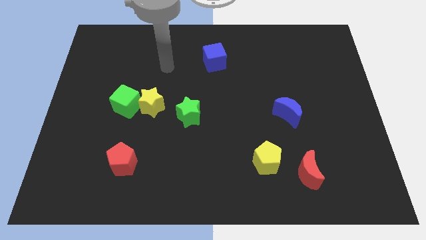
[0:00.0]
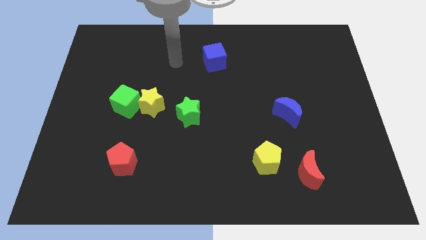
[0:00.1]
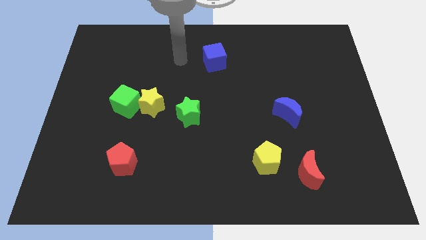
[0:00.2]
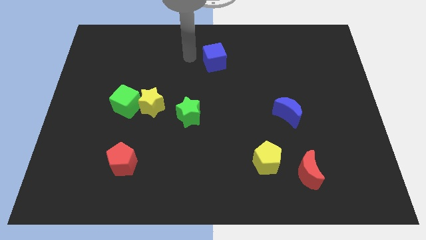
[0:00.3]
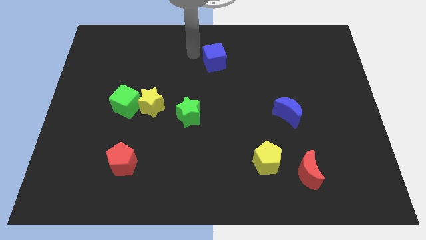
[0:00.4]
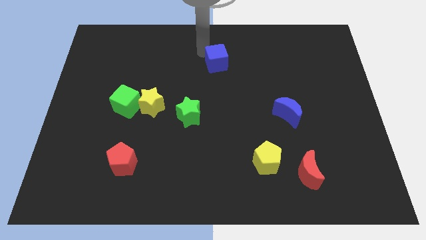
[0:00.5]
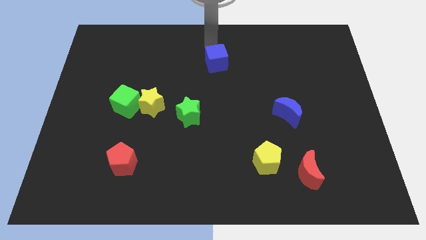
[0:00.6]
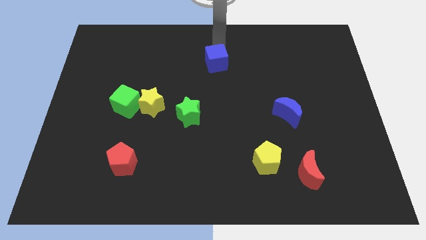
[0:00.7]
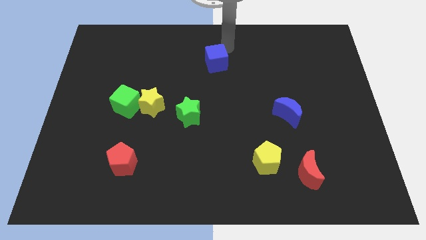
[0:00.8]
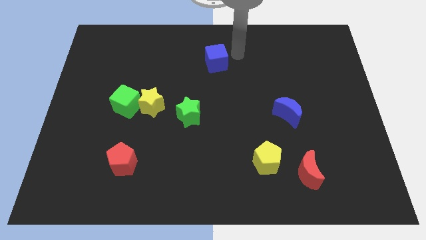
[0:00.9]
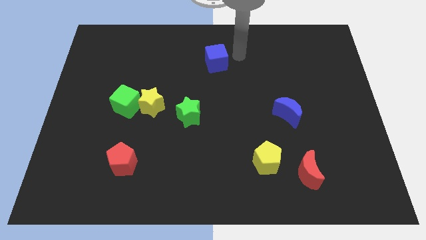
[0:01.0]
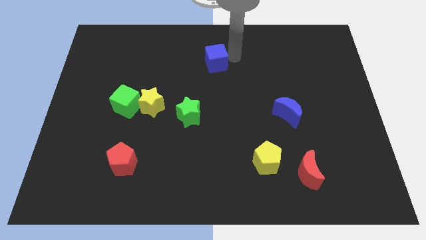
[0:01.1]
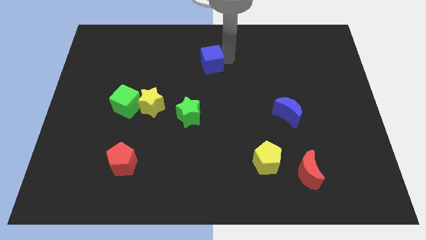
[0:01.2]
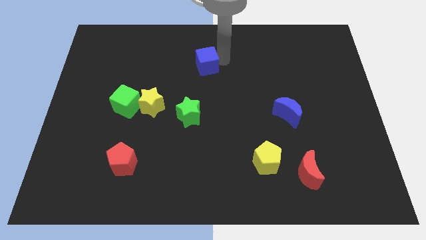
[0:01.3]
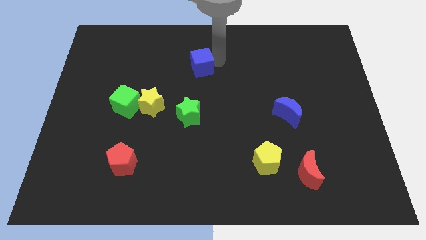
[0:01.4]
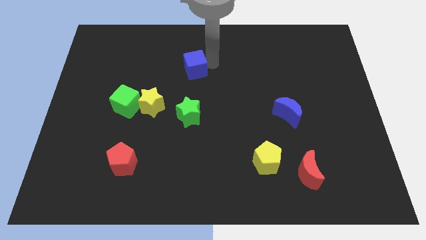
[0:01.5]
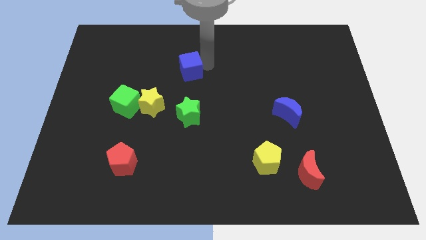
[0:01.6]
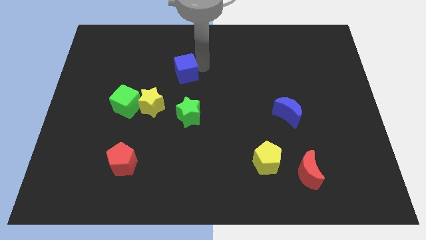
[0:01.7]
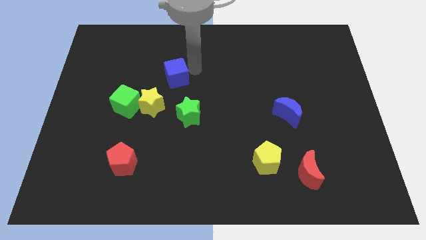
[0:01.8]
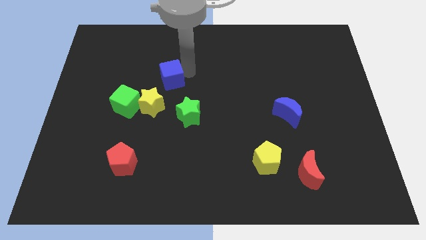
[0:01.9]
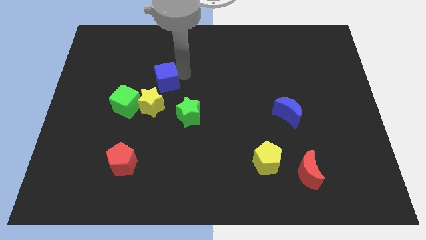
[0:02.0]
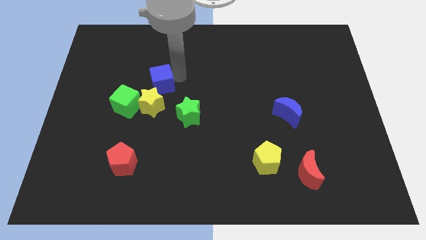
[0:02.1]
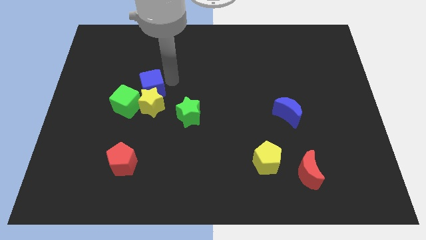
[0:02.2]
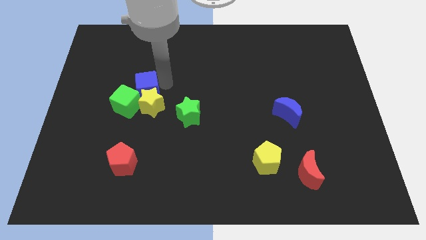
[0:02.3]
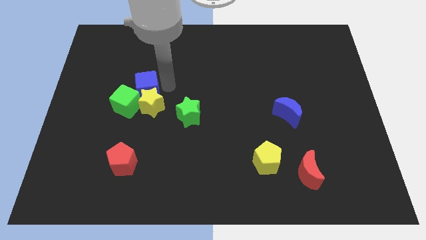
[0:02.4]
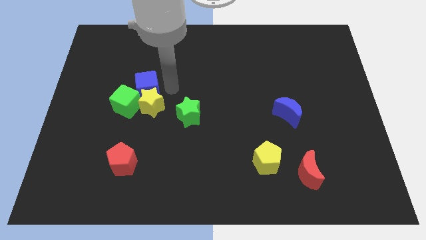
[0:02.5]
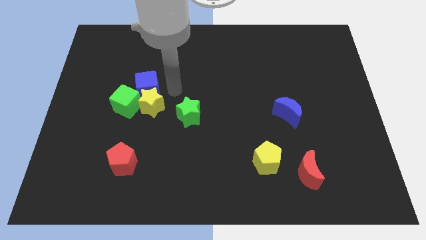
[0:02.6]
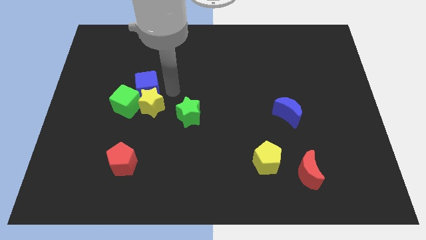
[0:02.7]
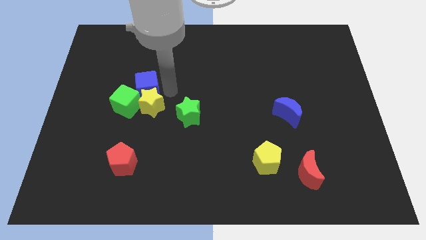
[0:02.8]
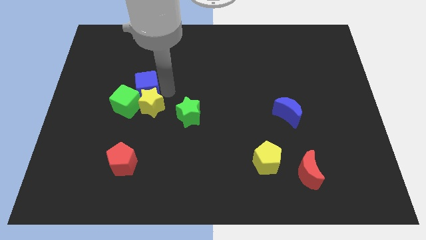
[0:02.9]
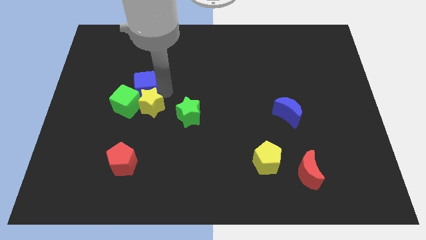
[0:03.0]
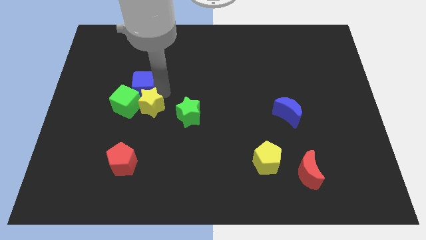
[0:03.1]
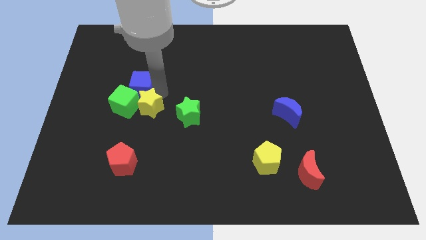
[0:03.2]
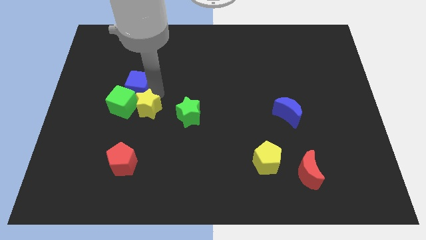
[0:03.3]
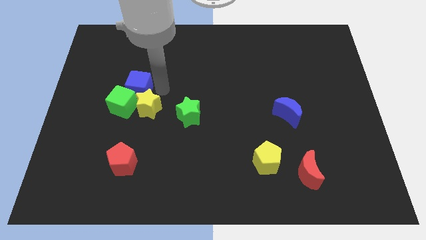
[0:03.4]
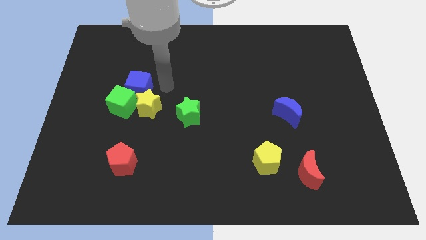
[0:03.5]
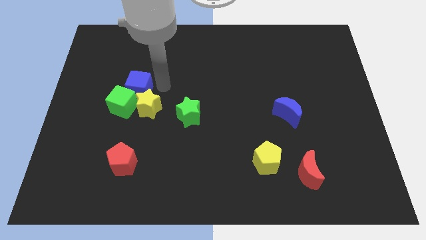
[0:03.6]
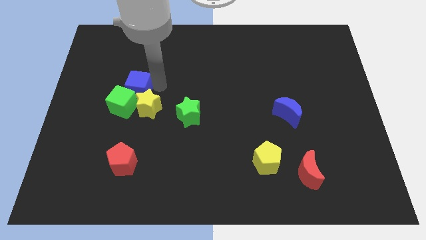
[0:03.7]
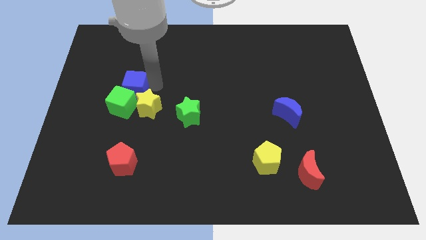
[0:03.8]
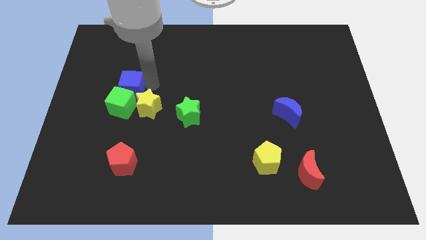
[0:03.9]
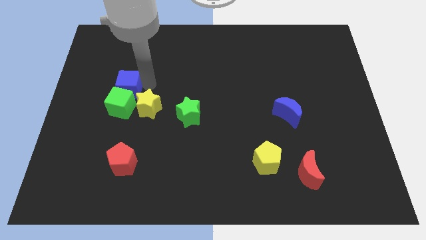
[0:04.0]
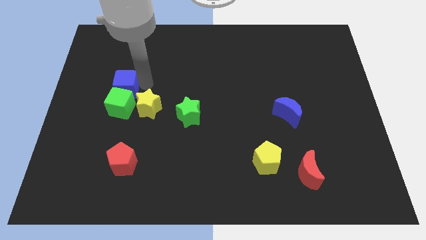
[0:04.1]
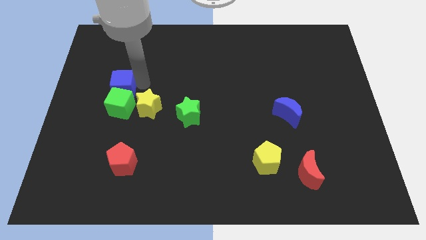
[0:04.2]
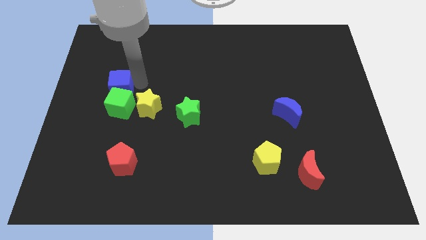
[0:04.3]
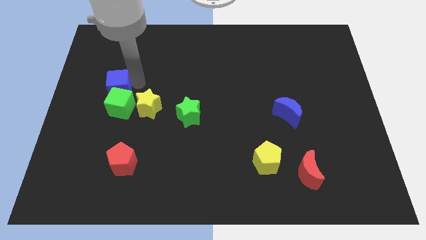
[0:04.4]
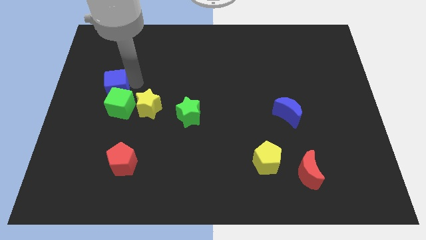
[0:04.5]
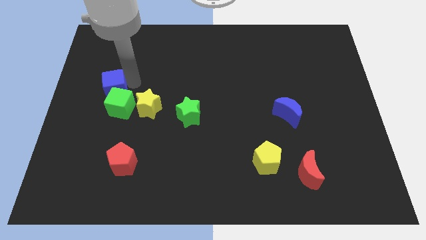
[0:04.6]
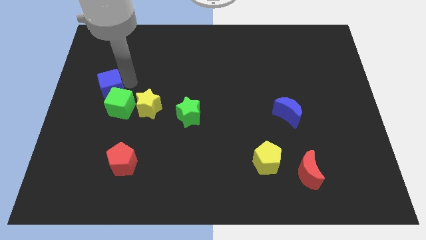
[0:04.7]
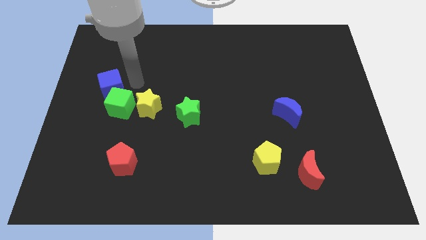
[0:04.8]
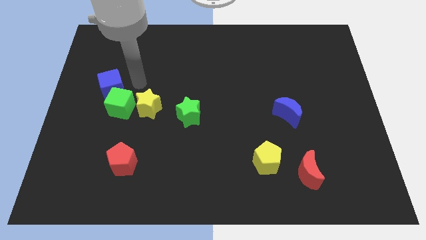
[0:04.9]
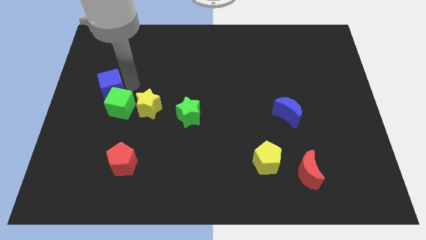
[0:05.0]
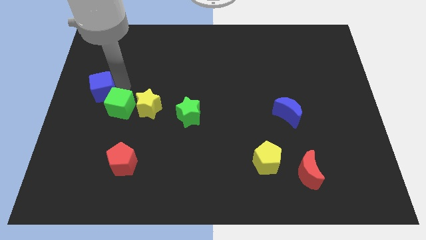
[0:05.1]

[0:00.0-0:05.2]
put the blue cube to the left side of the board
